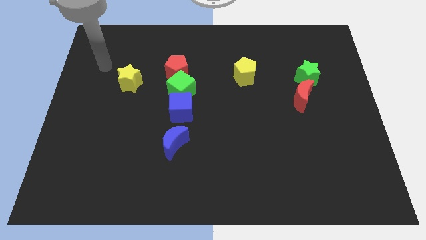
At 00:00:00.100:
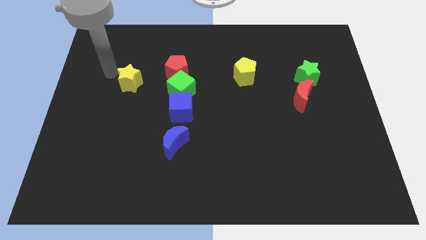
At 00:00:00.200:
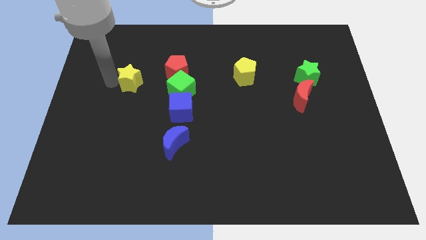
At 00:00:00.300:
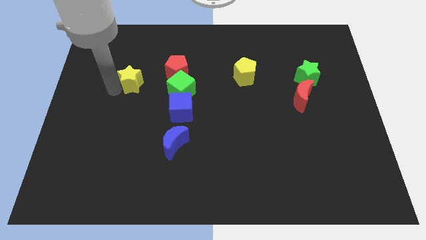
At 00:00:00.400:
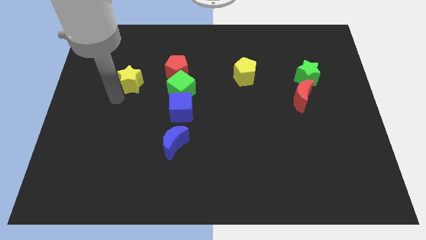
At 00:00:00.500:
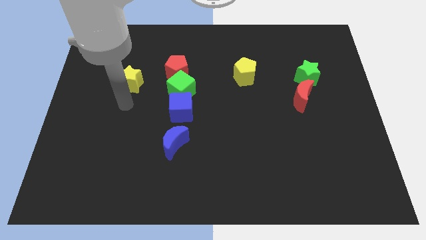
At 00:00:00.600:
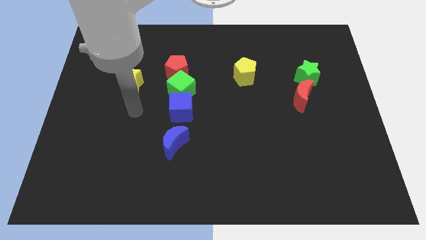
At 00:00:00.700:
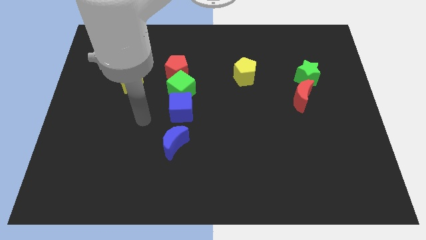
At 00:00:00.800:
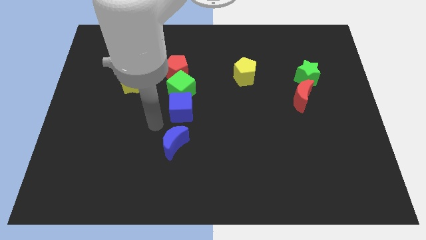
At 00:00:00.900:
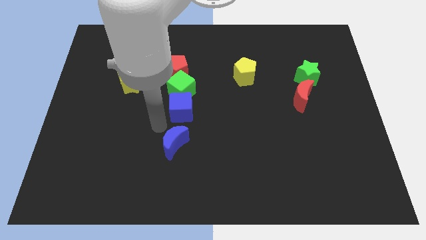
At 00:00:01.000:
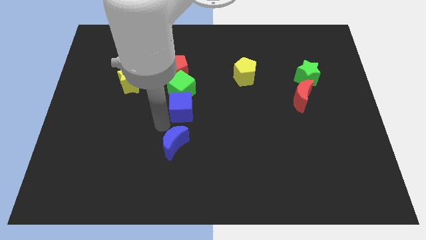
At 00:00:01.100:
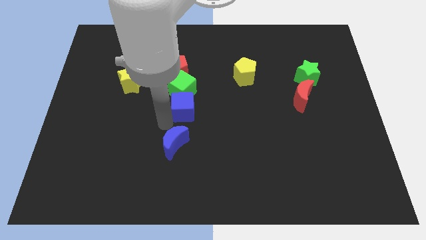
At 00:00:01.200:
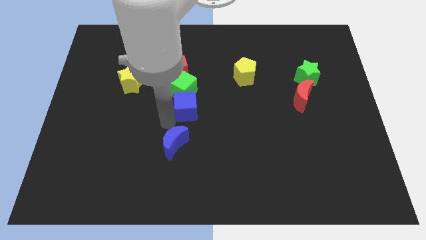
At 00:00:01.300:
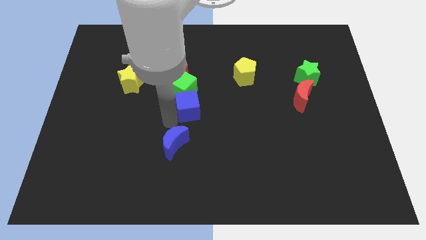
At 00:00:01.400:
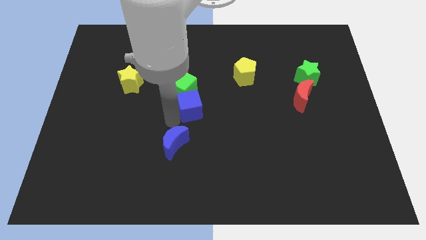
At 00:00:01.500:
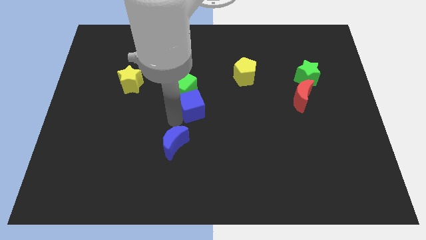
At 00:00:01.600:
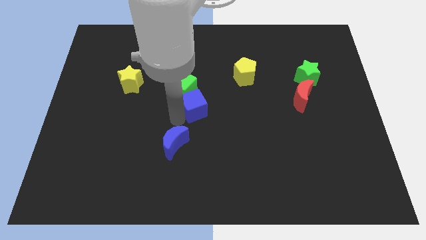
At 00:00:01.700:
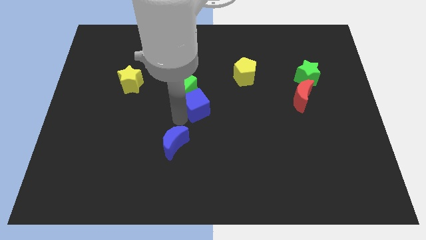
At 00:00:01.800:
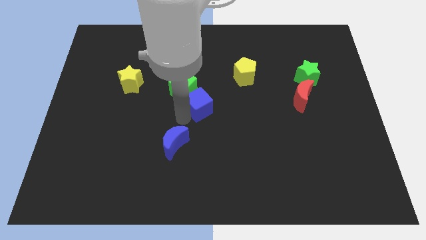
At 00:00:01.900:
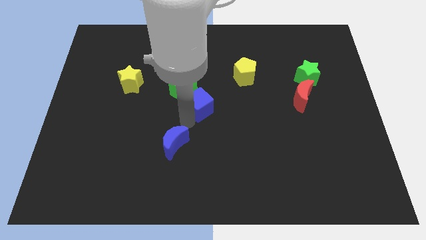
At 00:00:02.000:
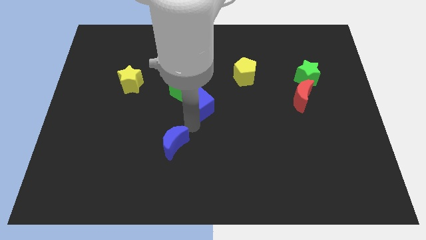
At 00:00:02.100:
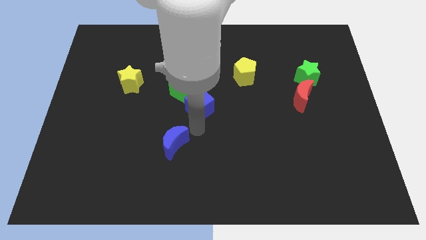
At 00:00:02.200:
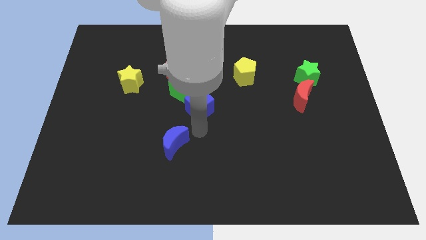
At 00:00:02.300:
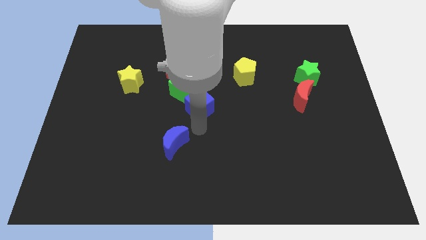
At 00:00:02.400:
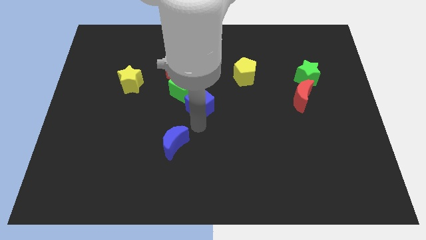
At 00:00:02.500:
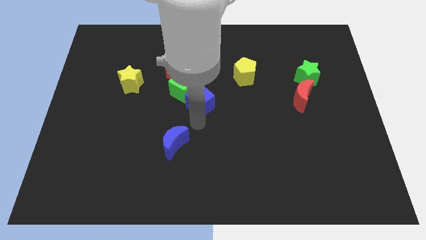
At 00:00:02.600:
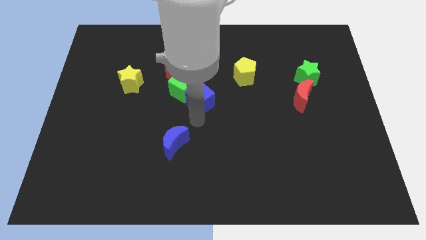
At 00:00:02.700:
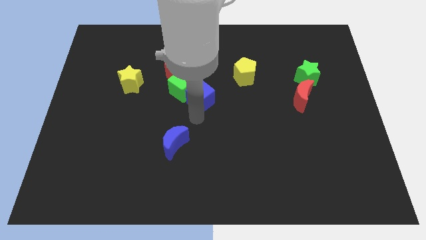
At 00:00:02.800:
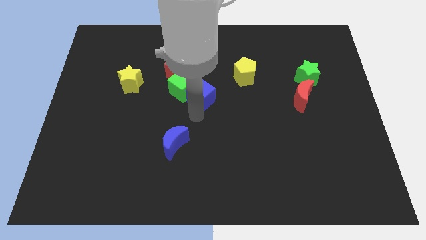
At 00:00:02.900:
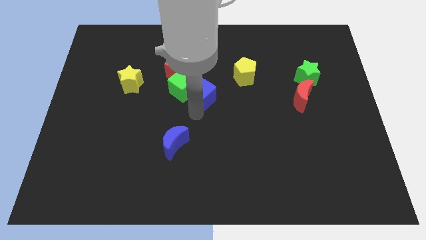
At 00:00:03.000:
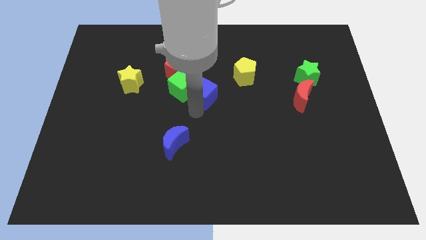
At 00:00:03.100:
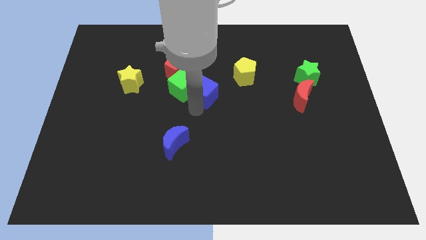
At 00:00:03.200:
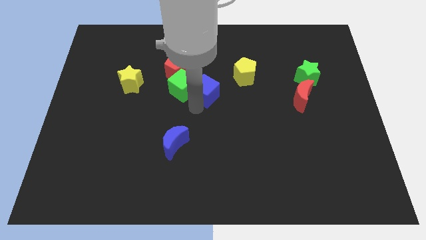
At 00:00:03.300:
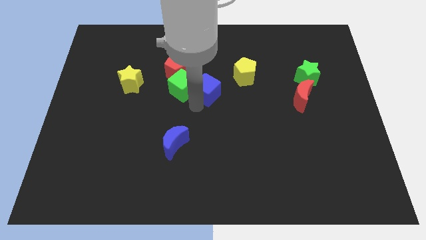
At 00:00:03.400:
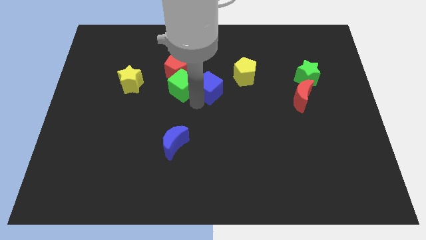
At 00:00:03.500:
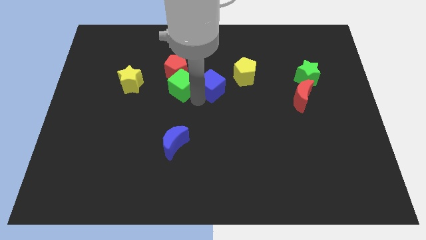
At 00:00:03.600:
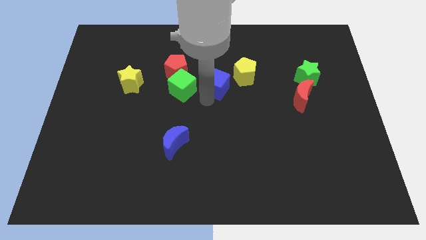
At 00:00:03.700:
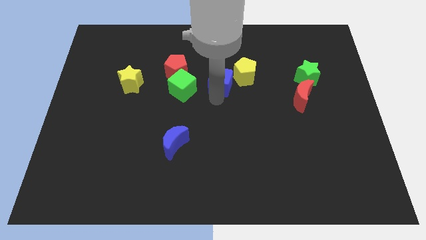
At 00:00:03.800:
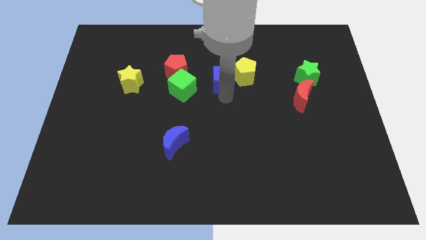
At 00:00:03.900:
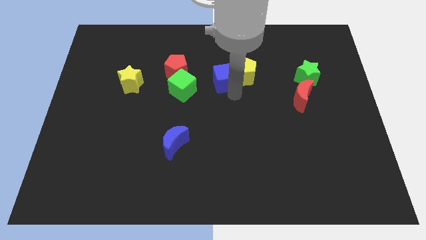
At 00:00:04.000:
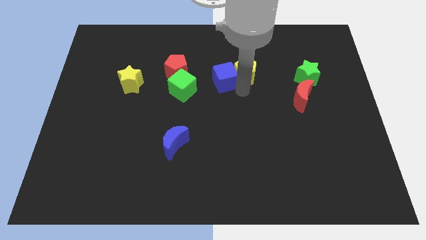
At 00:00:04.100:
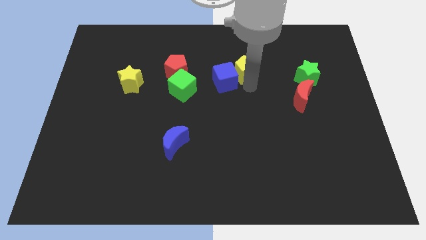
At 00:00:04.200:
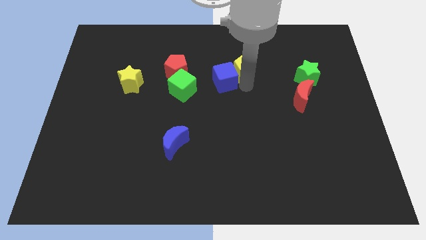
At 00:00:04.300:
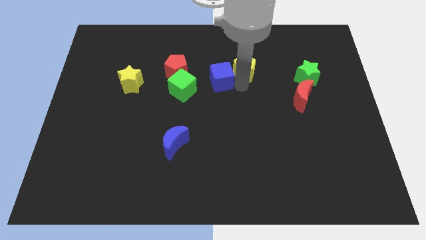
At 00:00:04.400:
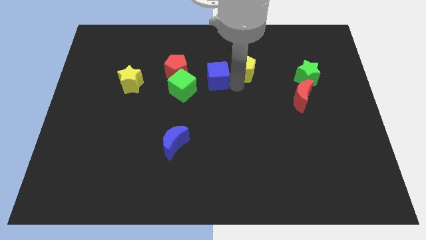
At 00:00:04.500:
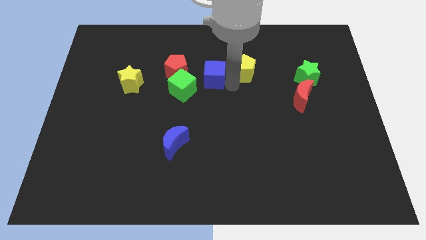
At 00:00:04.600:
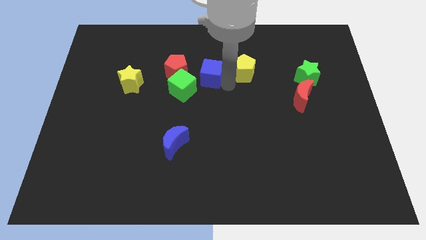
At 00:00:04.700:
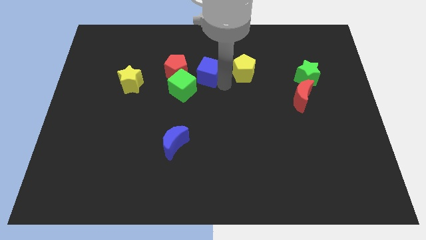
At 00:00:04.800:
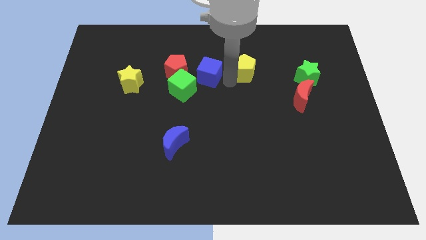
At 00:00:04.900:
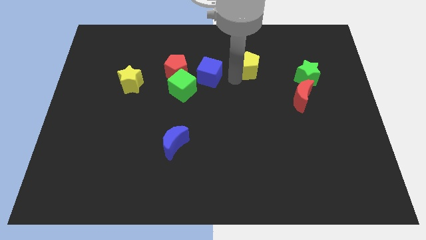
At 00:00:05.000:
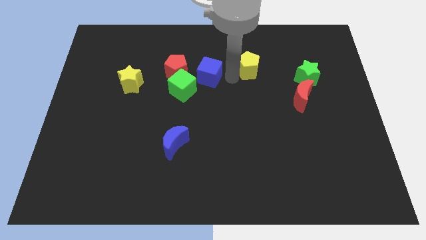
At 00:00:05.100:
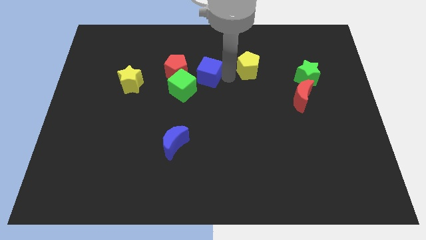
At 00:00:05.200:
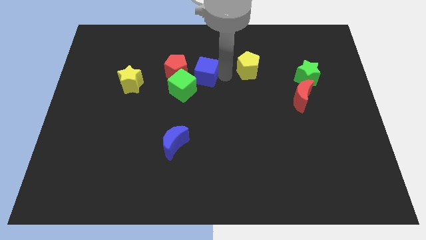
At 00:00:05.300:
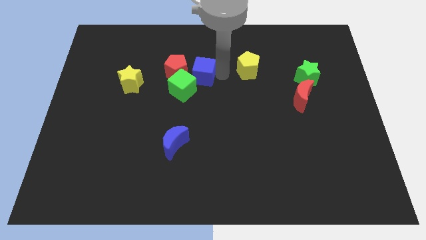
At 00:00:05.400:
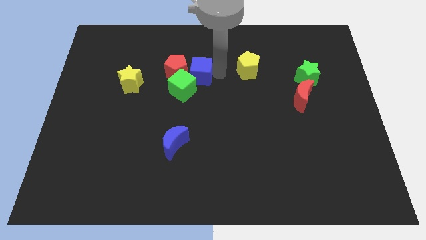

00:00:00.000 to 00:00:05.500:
slide the blue cube next to the red pentagon

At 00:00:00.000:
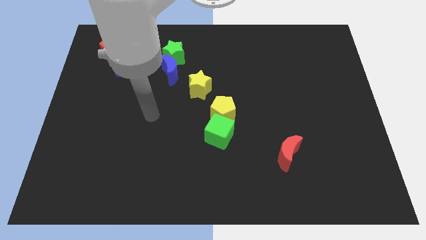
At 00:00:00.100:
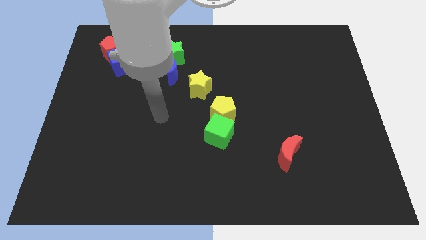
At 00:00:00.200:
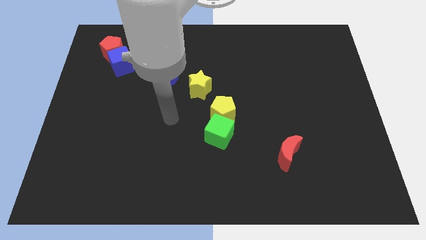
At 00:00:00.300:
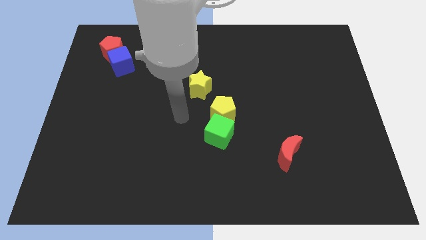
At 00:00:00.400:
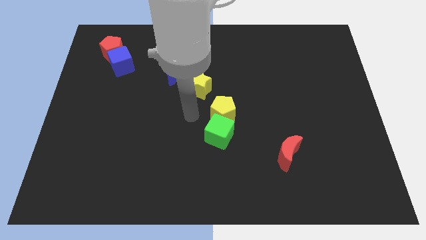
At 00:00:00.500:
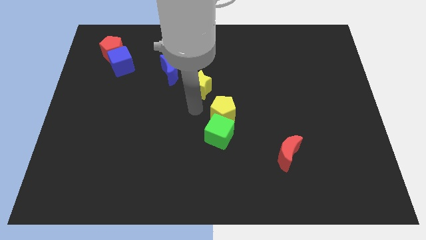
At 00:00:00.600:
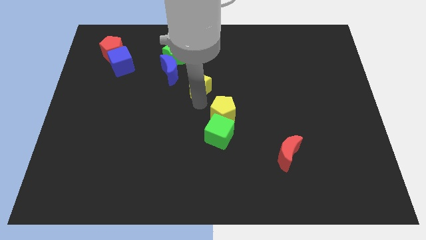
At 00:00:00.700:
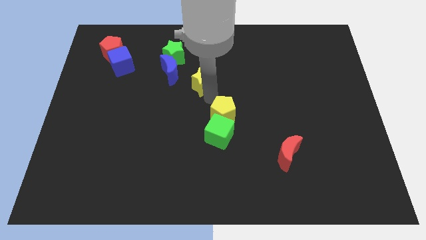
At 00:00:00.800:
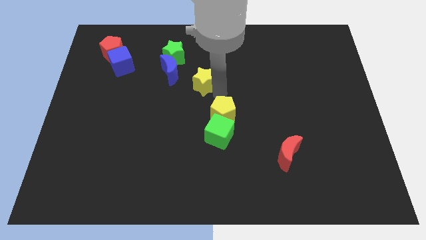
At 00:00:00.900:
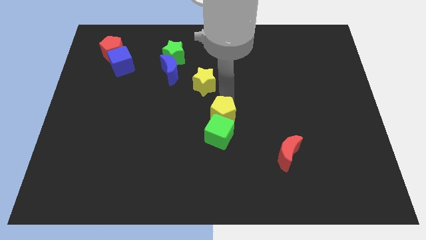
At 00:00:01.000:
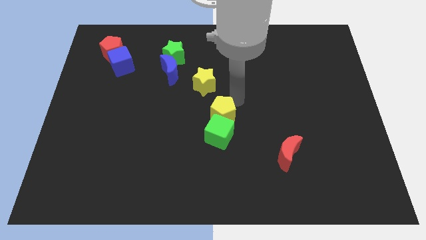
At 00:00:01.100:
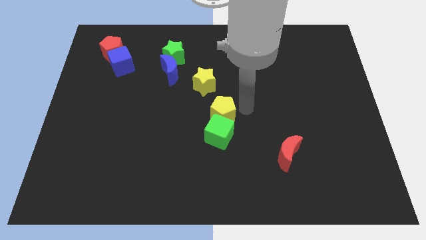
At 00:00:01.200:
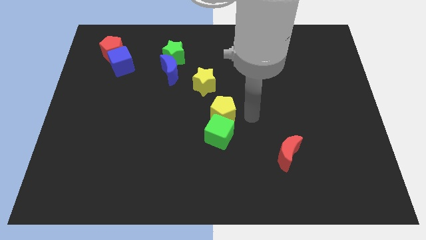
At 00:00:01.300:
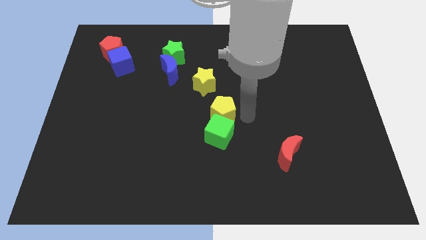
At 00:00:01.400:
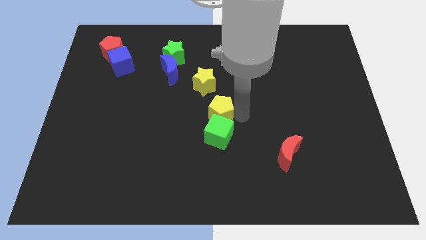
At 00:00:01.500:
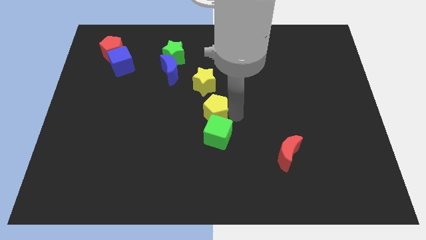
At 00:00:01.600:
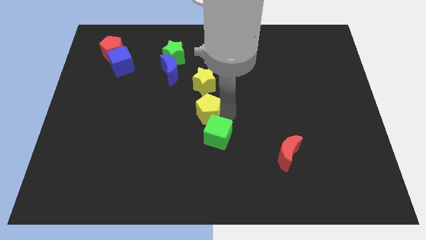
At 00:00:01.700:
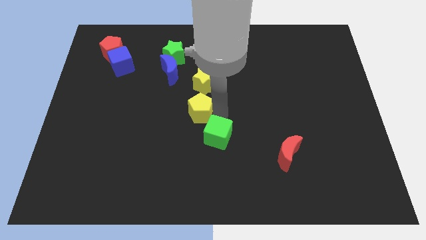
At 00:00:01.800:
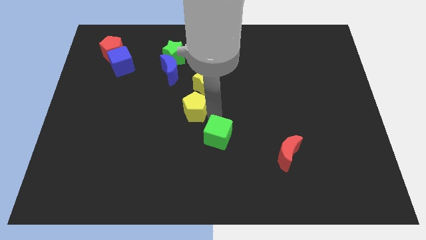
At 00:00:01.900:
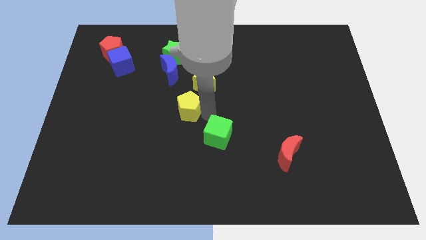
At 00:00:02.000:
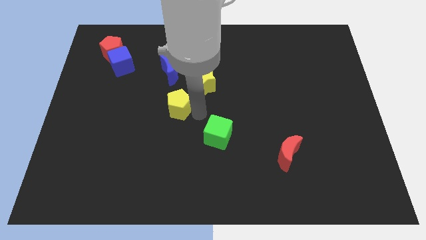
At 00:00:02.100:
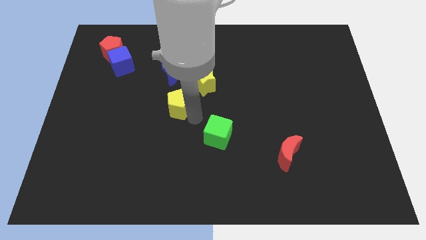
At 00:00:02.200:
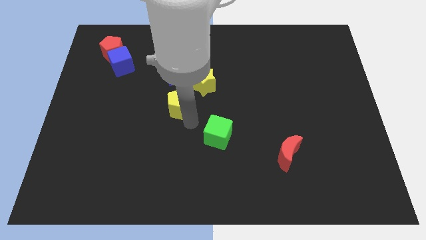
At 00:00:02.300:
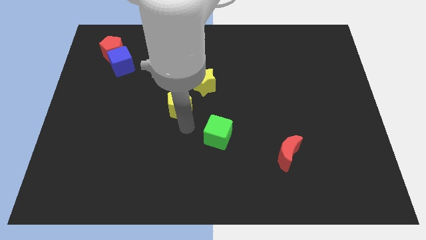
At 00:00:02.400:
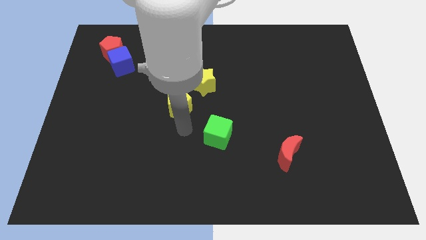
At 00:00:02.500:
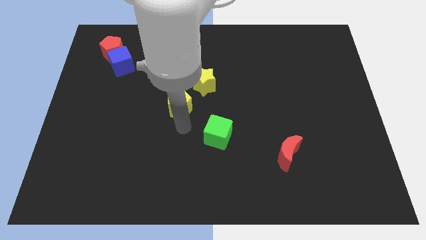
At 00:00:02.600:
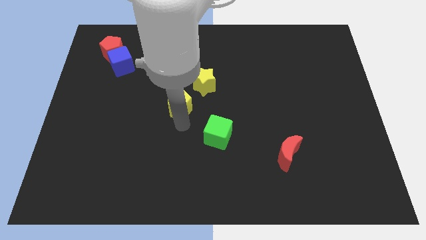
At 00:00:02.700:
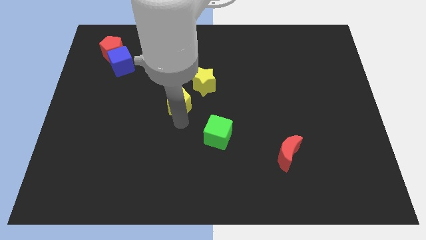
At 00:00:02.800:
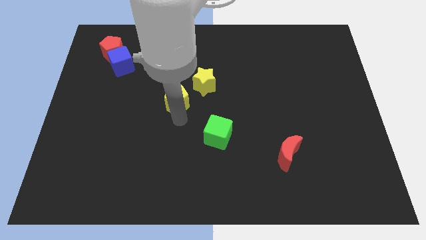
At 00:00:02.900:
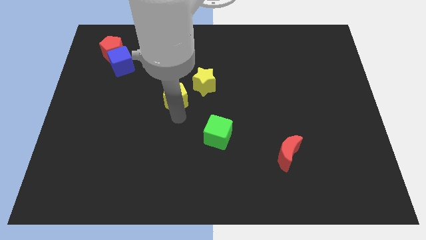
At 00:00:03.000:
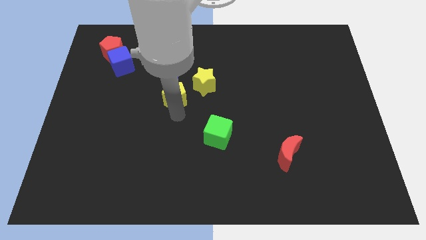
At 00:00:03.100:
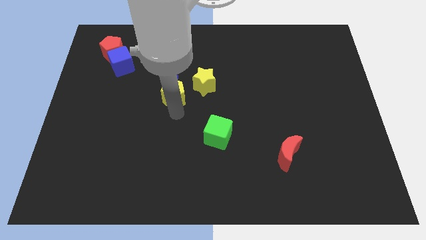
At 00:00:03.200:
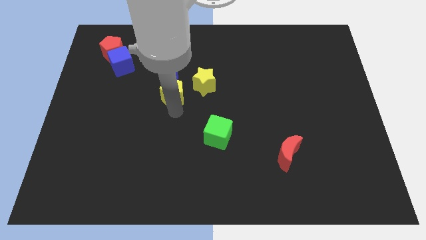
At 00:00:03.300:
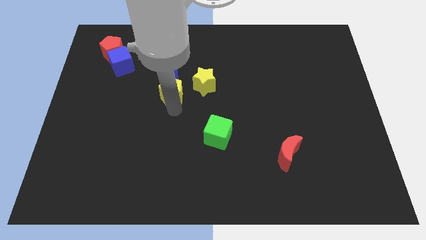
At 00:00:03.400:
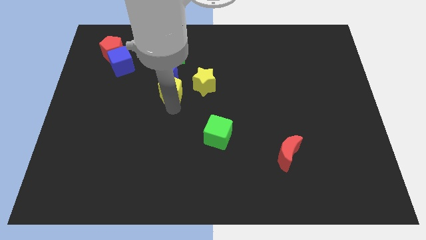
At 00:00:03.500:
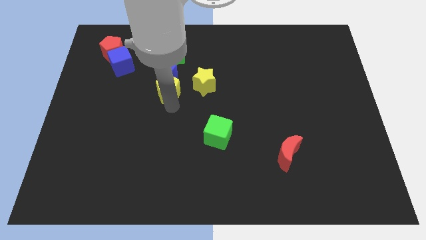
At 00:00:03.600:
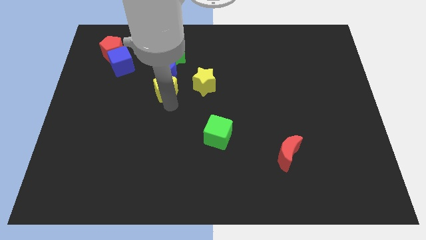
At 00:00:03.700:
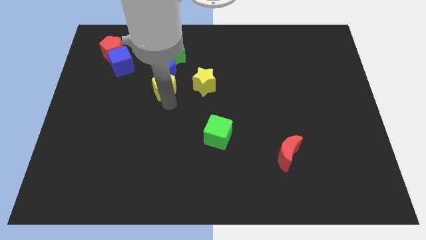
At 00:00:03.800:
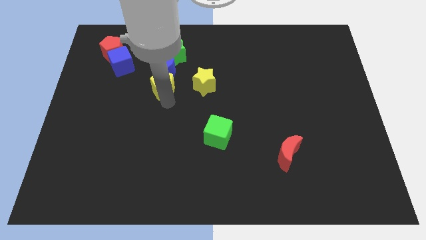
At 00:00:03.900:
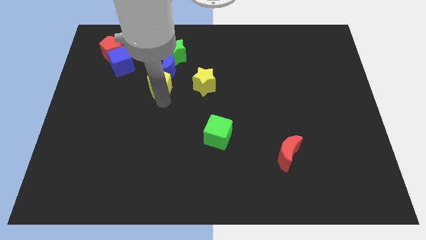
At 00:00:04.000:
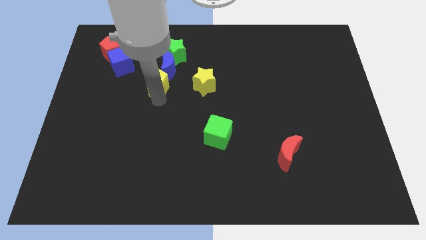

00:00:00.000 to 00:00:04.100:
put the yellow pentagon close to the blue moon
